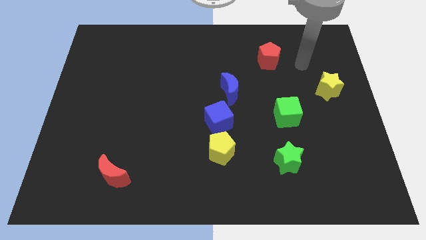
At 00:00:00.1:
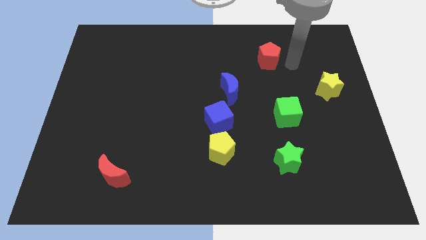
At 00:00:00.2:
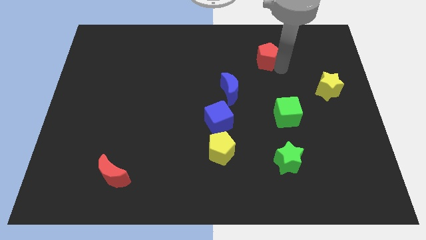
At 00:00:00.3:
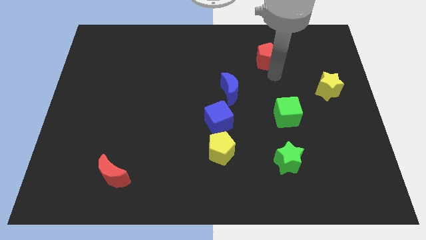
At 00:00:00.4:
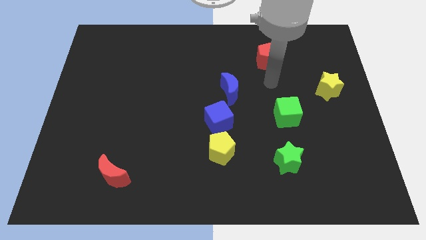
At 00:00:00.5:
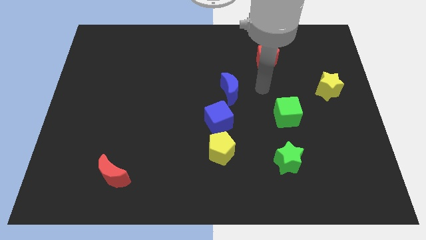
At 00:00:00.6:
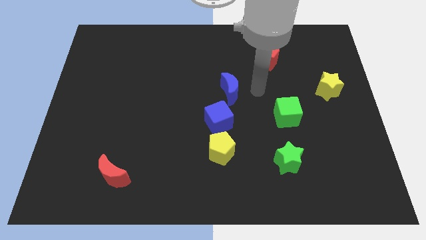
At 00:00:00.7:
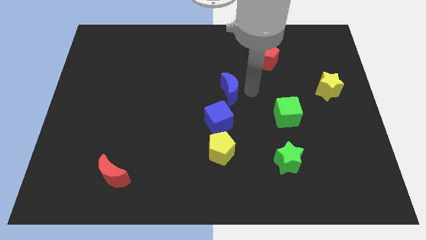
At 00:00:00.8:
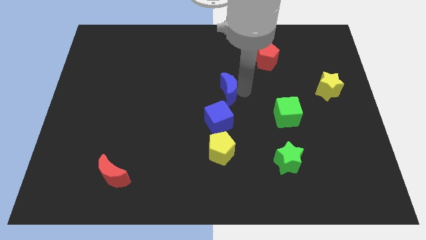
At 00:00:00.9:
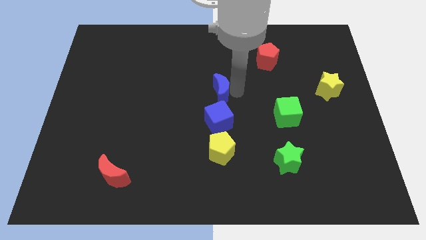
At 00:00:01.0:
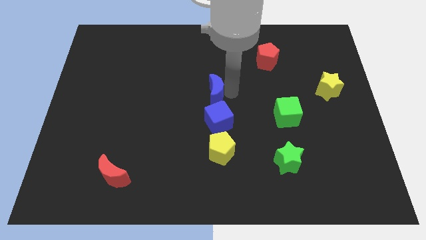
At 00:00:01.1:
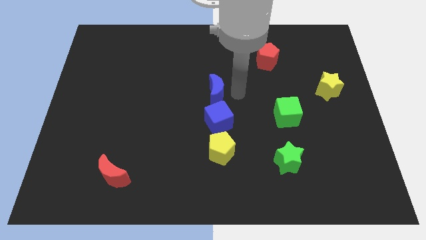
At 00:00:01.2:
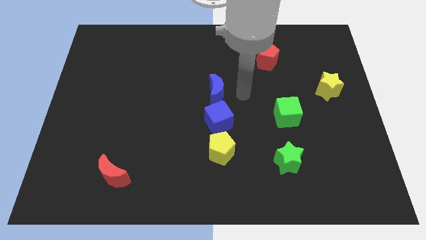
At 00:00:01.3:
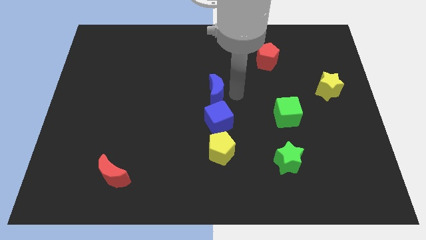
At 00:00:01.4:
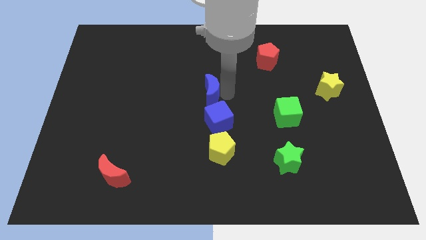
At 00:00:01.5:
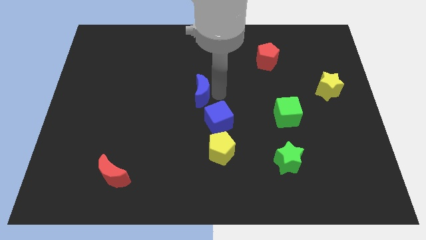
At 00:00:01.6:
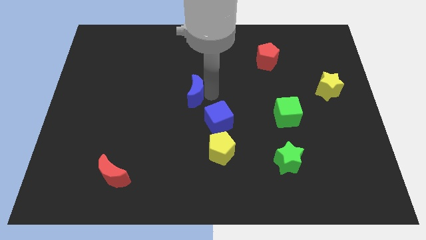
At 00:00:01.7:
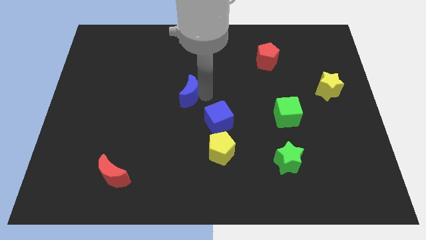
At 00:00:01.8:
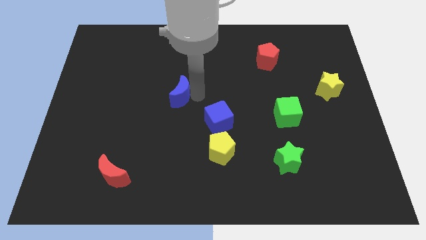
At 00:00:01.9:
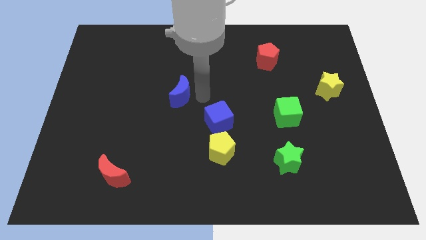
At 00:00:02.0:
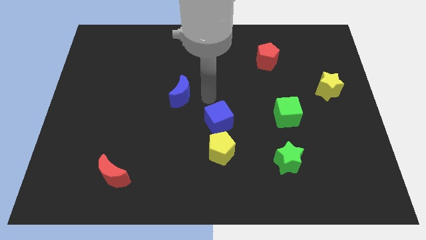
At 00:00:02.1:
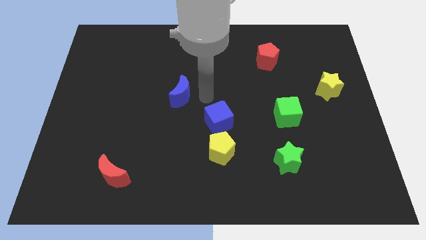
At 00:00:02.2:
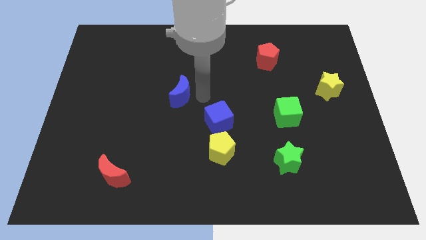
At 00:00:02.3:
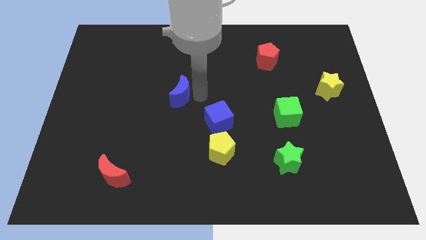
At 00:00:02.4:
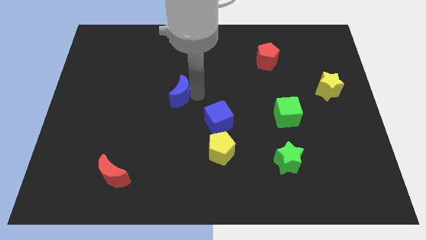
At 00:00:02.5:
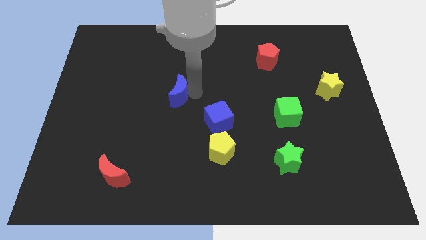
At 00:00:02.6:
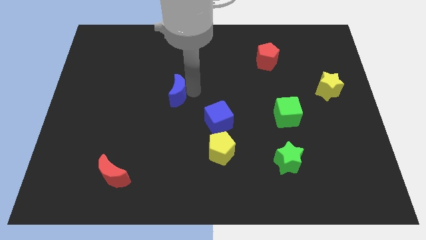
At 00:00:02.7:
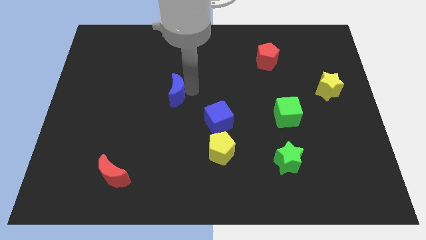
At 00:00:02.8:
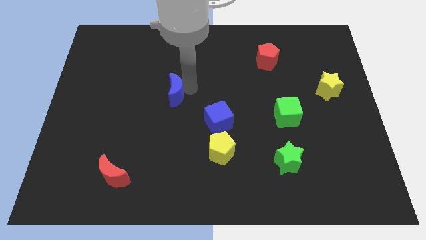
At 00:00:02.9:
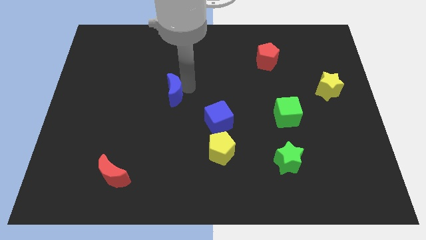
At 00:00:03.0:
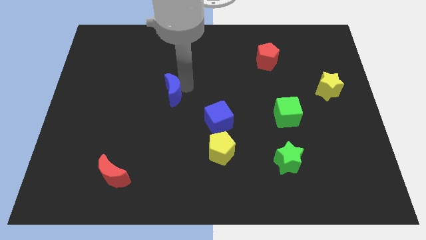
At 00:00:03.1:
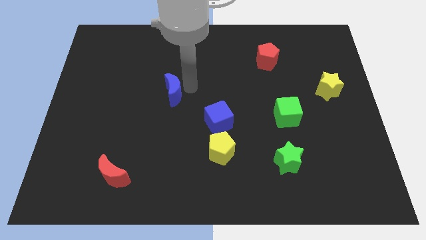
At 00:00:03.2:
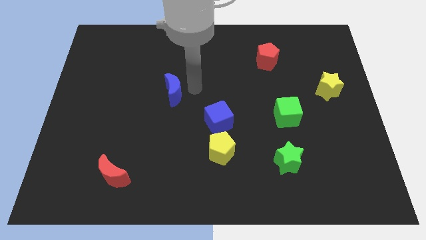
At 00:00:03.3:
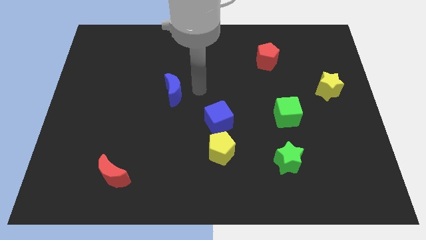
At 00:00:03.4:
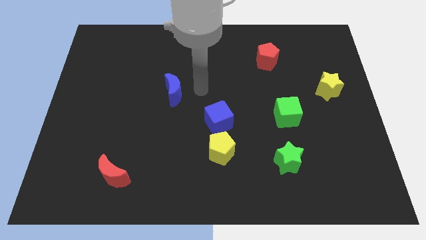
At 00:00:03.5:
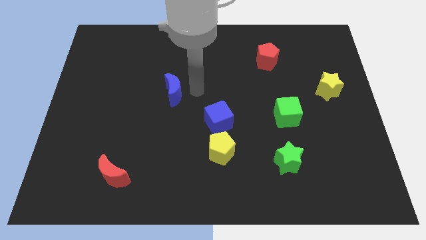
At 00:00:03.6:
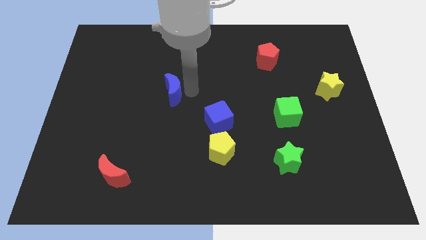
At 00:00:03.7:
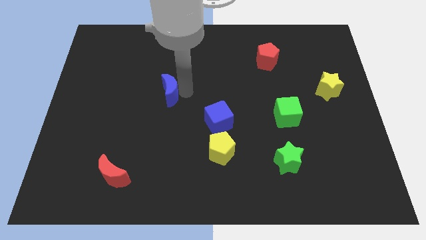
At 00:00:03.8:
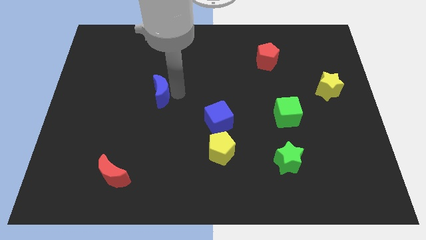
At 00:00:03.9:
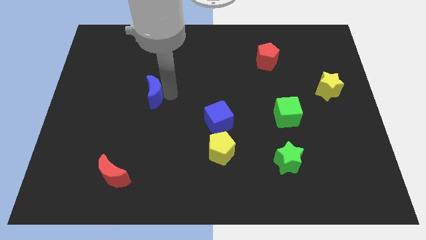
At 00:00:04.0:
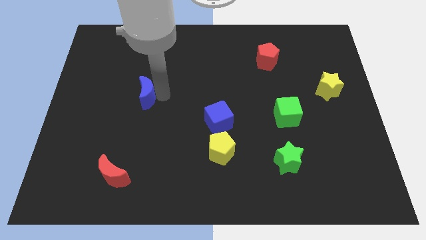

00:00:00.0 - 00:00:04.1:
push the blue moon left

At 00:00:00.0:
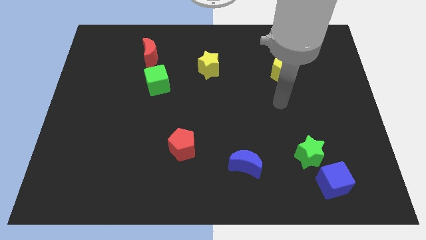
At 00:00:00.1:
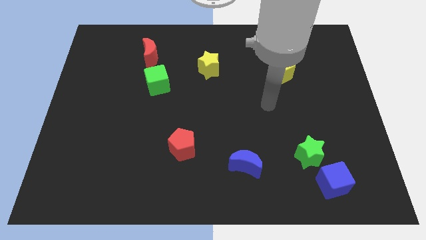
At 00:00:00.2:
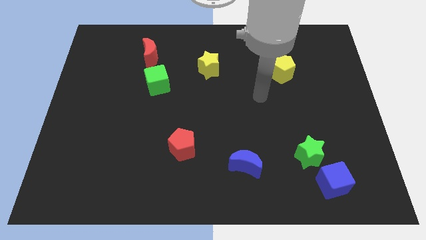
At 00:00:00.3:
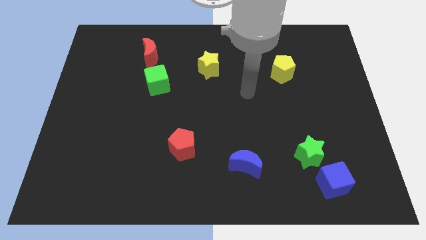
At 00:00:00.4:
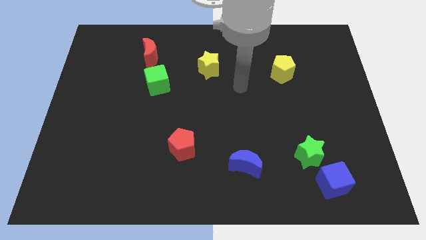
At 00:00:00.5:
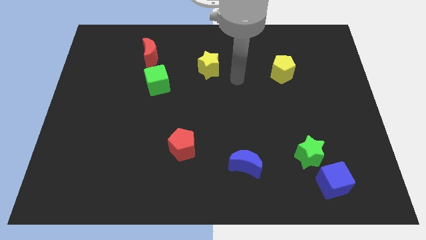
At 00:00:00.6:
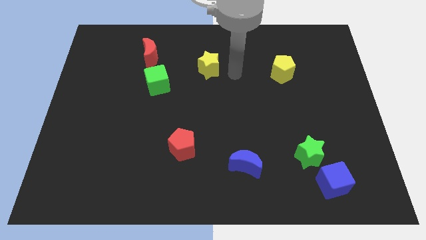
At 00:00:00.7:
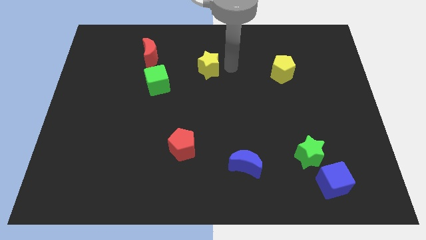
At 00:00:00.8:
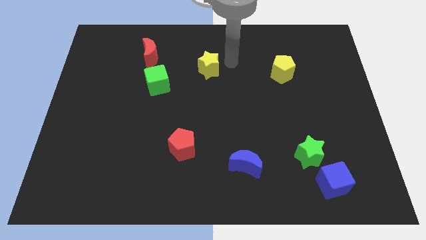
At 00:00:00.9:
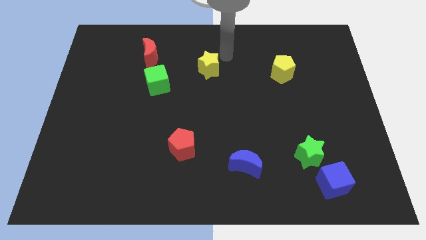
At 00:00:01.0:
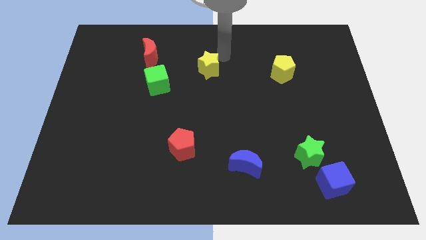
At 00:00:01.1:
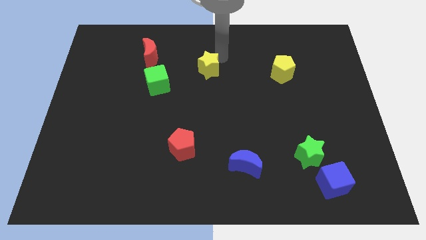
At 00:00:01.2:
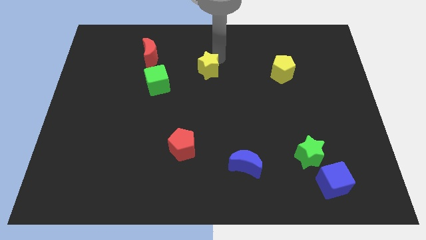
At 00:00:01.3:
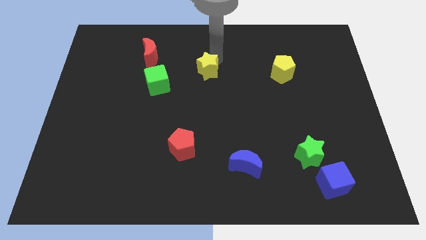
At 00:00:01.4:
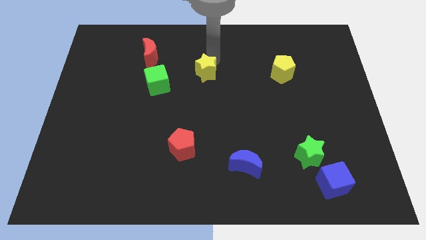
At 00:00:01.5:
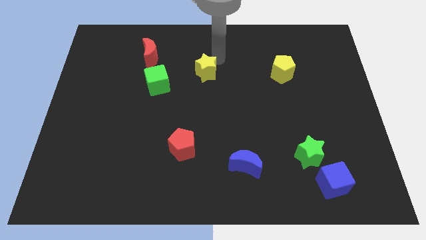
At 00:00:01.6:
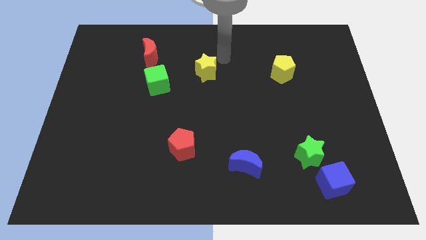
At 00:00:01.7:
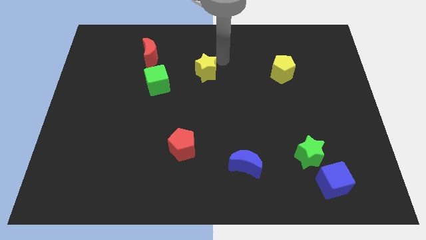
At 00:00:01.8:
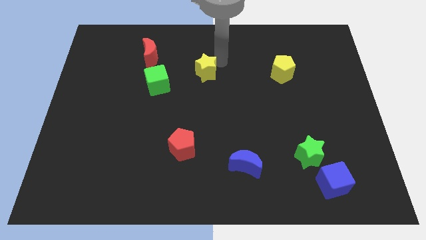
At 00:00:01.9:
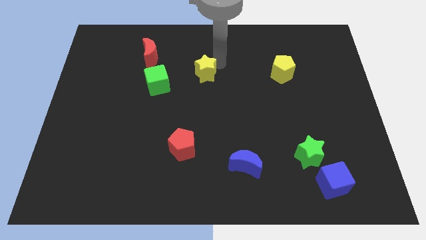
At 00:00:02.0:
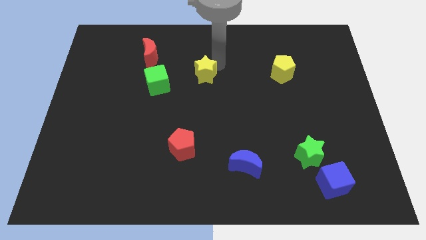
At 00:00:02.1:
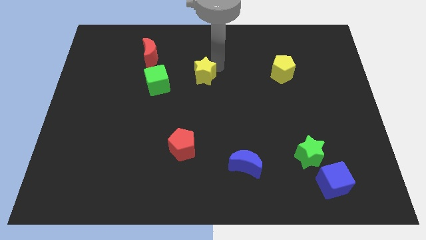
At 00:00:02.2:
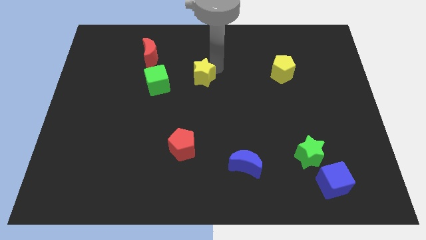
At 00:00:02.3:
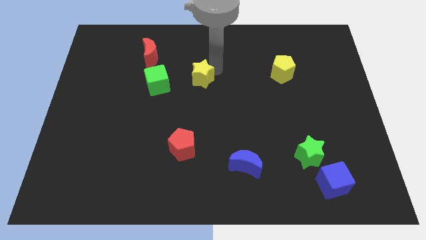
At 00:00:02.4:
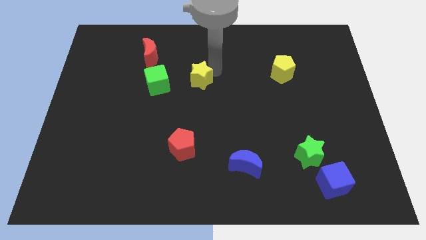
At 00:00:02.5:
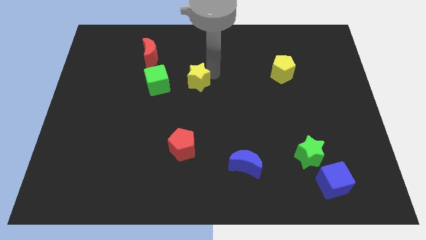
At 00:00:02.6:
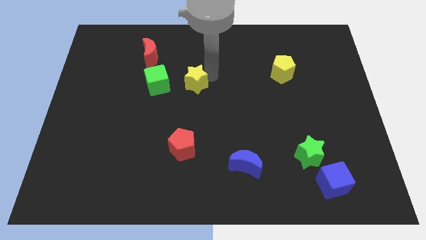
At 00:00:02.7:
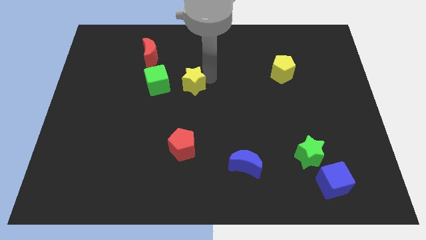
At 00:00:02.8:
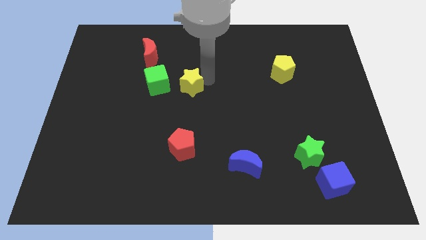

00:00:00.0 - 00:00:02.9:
move the yellow star slightly downwards and left

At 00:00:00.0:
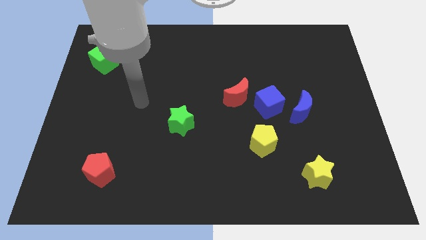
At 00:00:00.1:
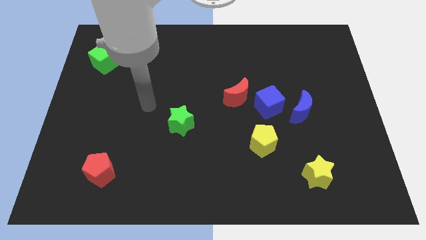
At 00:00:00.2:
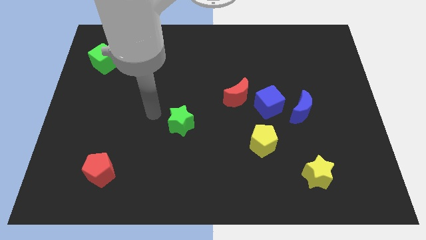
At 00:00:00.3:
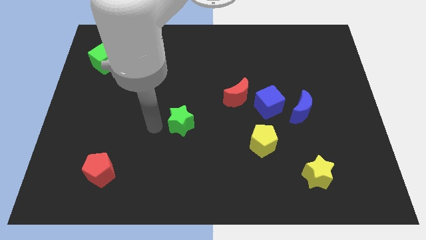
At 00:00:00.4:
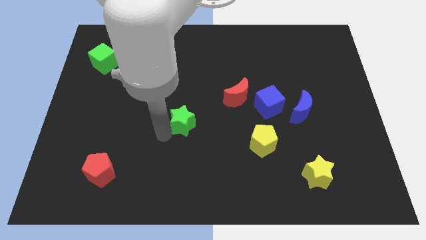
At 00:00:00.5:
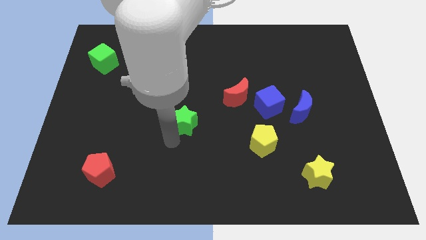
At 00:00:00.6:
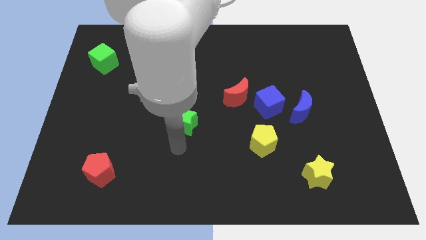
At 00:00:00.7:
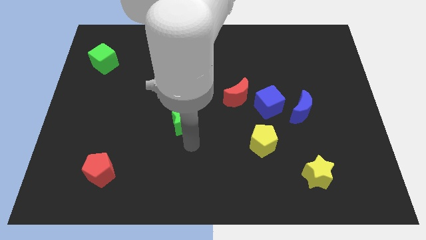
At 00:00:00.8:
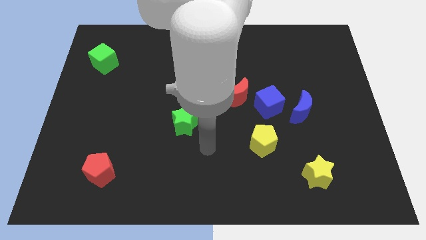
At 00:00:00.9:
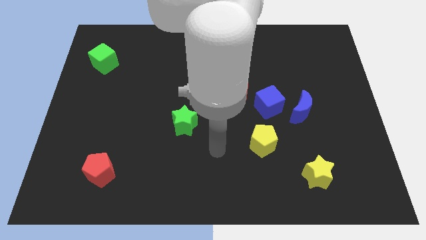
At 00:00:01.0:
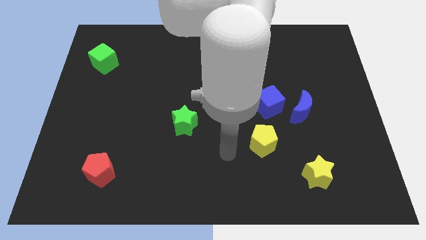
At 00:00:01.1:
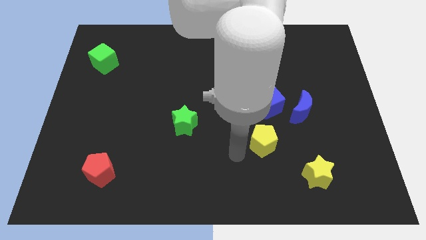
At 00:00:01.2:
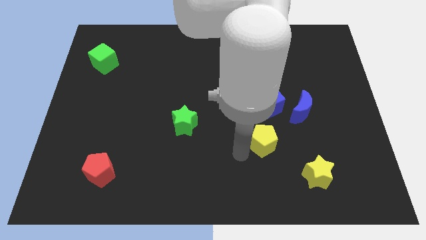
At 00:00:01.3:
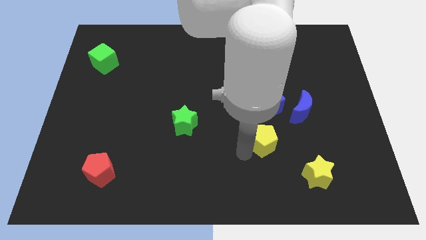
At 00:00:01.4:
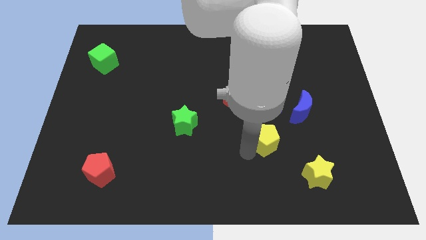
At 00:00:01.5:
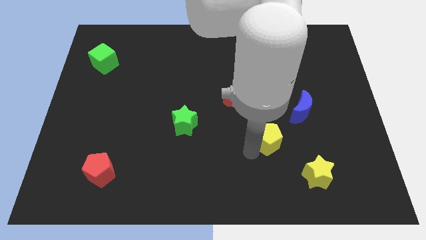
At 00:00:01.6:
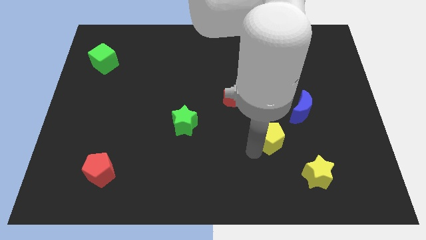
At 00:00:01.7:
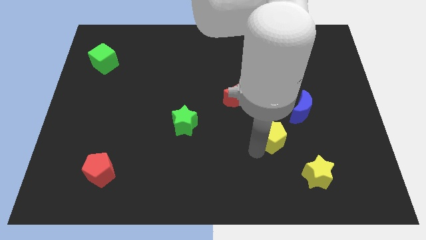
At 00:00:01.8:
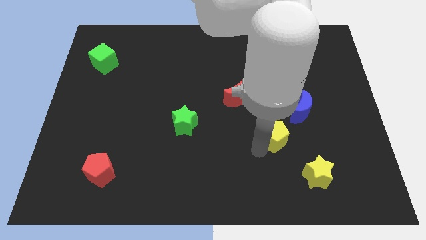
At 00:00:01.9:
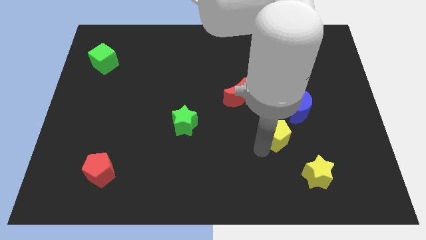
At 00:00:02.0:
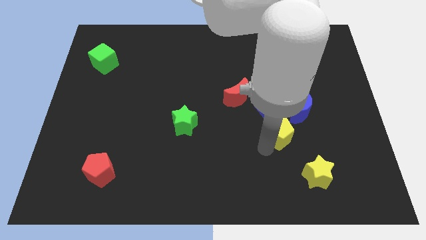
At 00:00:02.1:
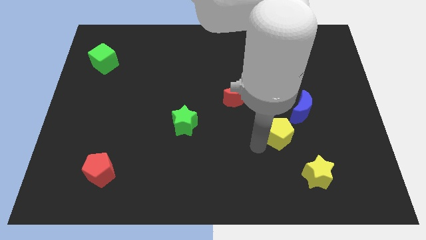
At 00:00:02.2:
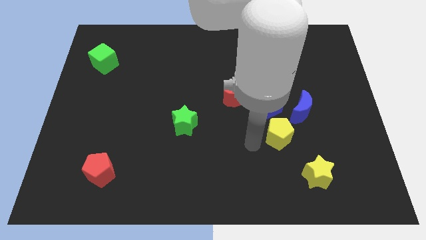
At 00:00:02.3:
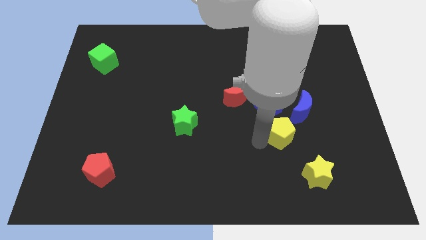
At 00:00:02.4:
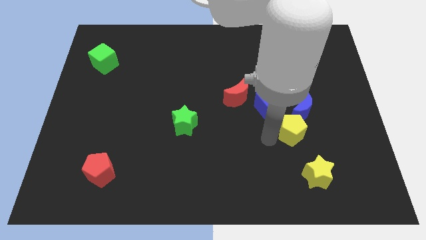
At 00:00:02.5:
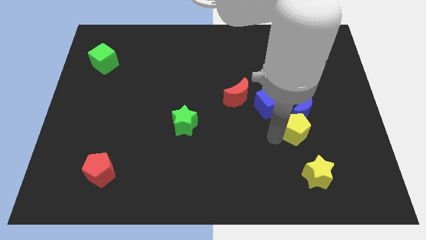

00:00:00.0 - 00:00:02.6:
move the yellow pentagon upwards and to the right a bit
